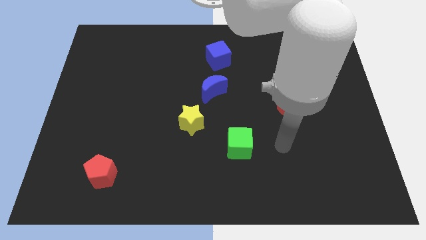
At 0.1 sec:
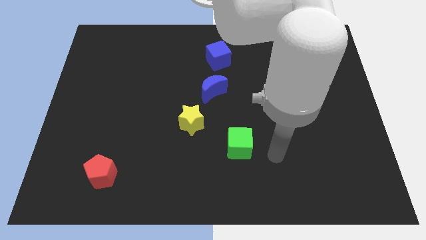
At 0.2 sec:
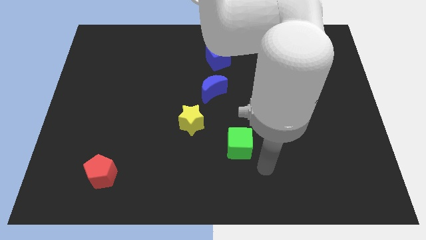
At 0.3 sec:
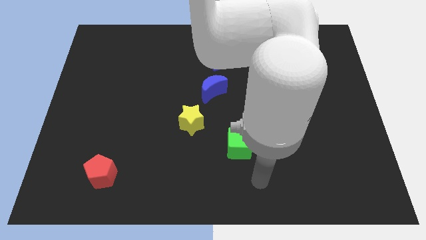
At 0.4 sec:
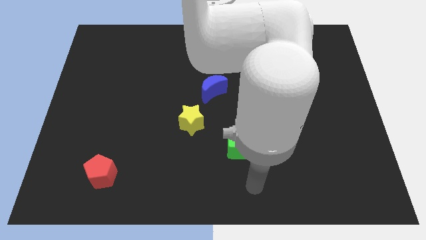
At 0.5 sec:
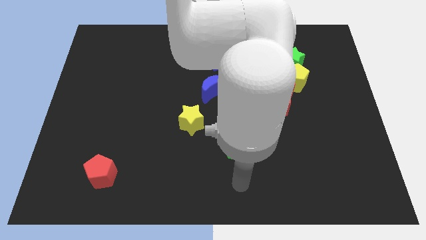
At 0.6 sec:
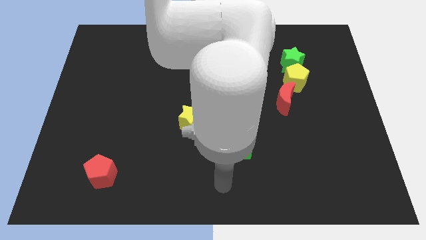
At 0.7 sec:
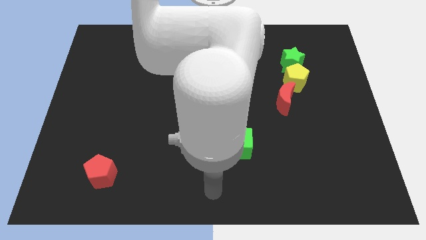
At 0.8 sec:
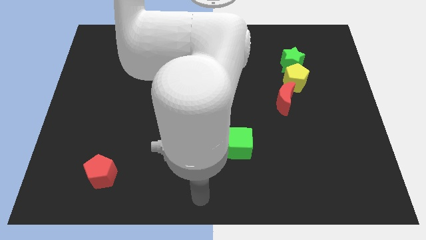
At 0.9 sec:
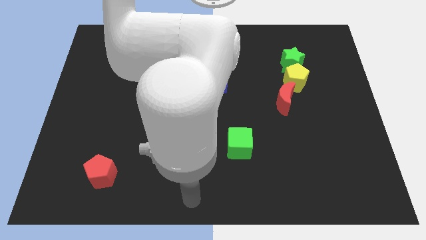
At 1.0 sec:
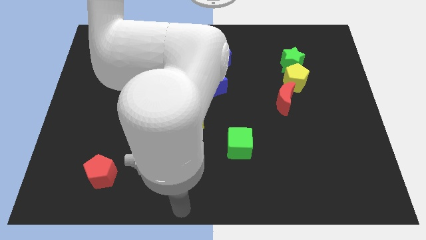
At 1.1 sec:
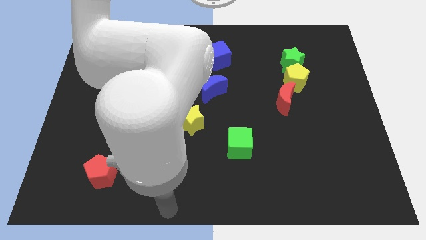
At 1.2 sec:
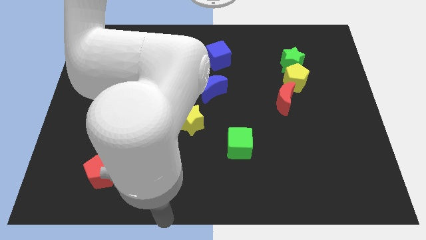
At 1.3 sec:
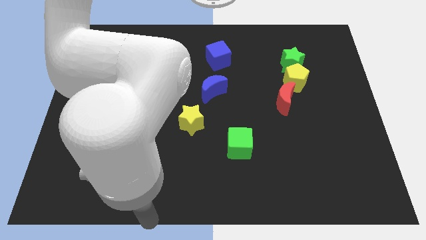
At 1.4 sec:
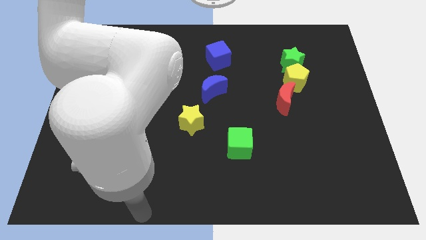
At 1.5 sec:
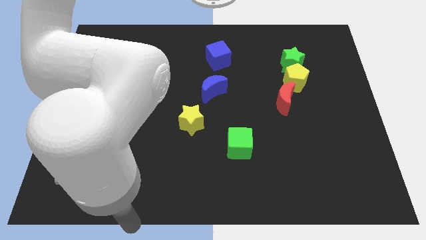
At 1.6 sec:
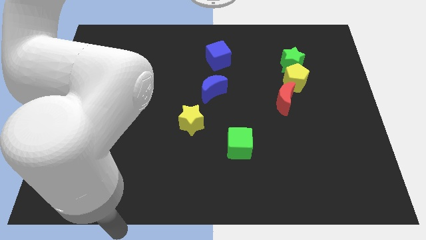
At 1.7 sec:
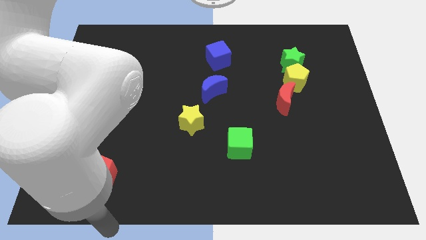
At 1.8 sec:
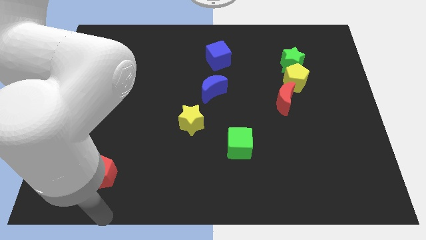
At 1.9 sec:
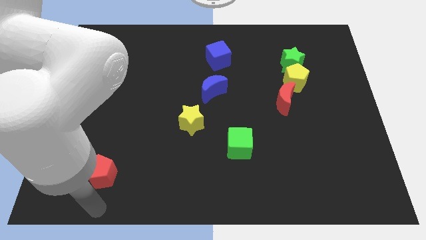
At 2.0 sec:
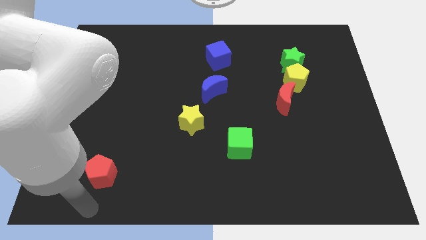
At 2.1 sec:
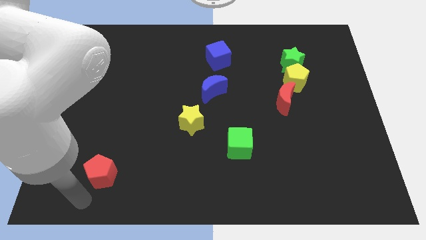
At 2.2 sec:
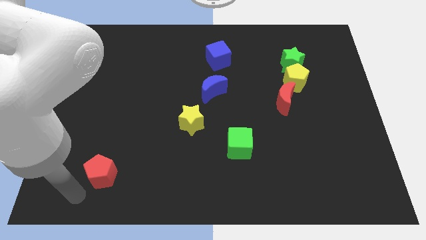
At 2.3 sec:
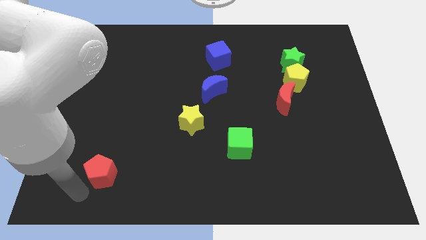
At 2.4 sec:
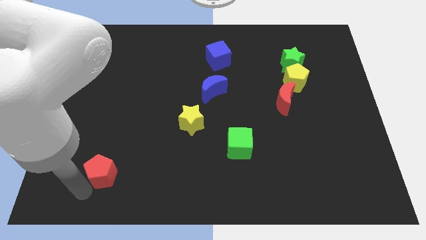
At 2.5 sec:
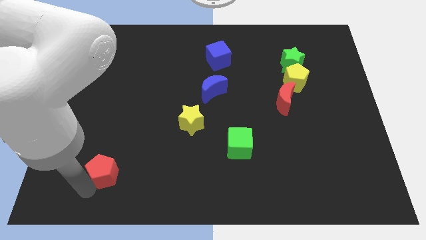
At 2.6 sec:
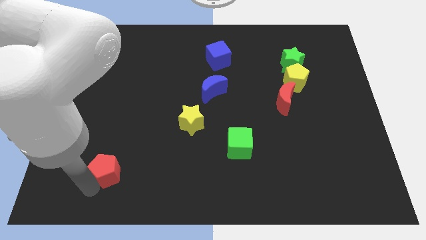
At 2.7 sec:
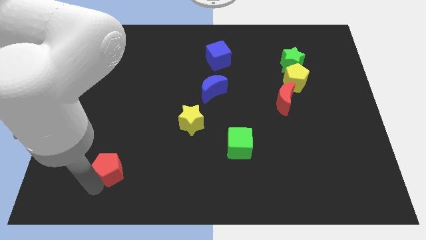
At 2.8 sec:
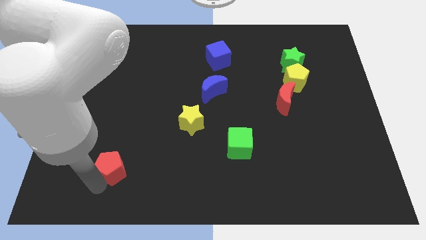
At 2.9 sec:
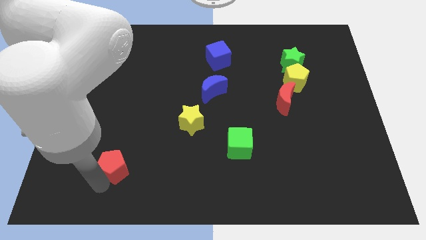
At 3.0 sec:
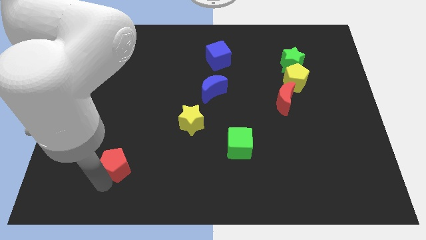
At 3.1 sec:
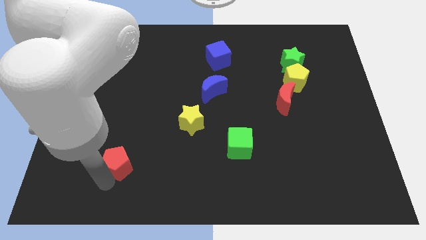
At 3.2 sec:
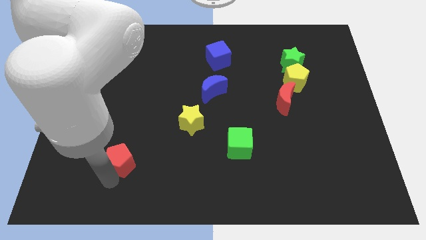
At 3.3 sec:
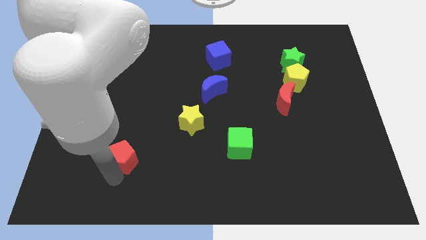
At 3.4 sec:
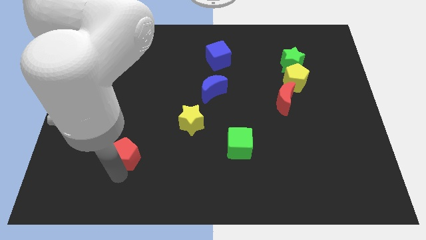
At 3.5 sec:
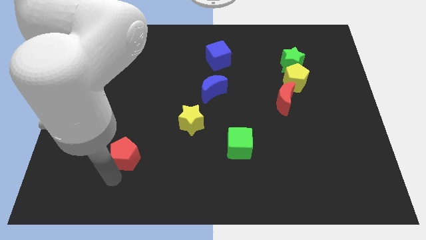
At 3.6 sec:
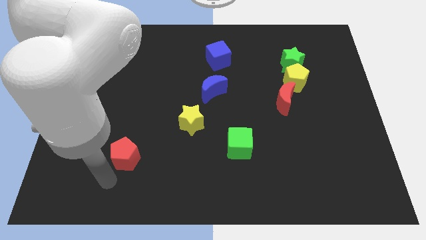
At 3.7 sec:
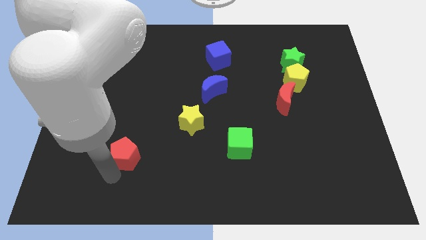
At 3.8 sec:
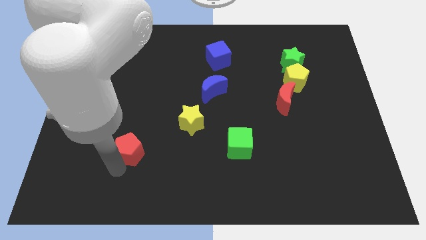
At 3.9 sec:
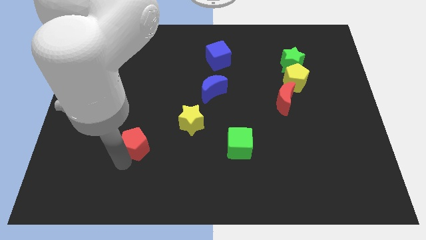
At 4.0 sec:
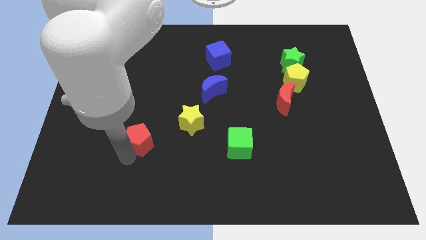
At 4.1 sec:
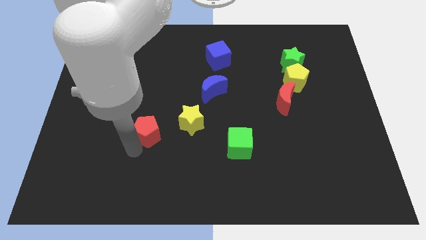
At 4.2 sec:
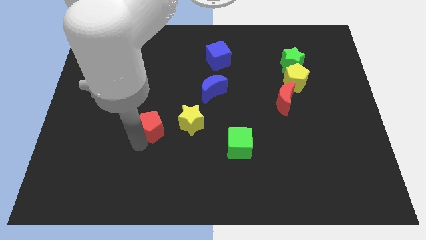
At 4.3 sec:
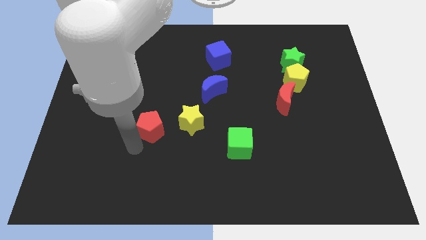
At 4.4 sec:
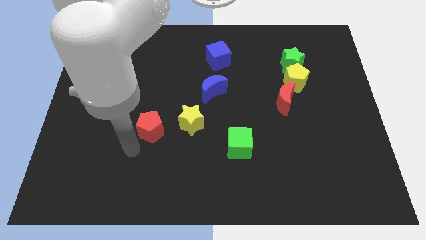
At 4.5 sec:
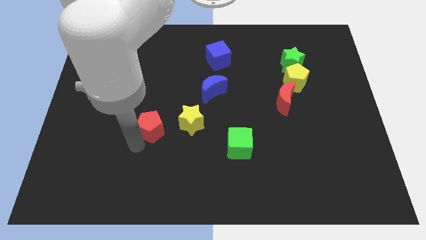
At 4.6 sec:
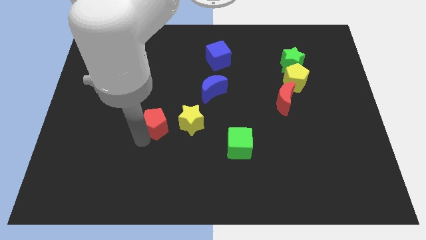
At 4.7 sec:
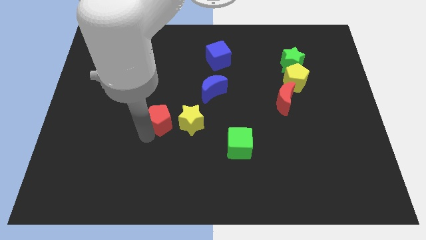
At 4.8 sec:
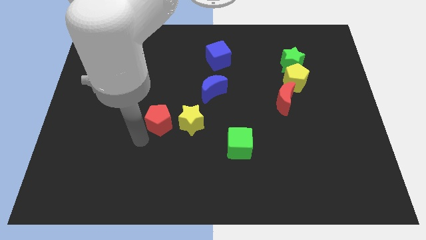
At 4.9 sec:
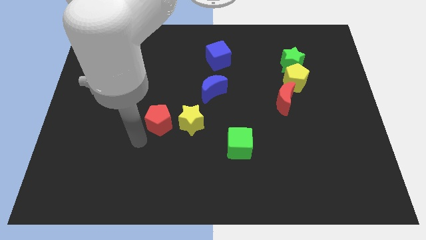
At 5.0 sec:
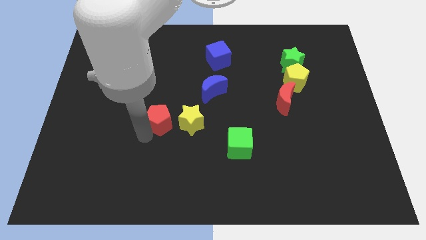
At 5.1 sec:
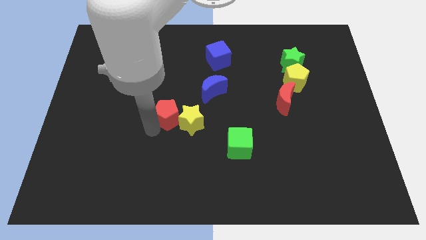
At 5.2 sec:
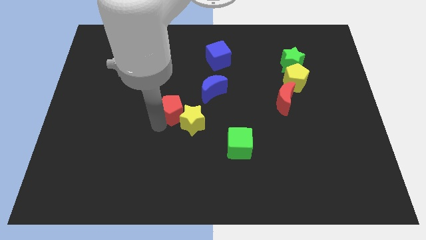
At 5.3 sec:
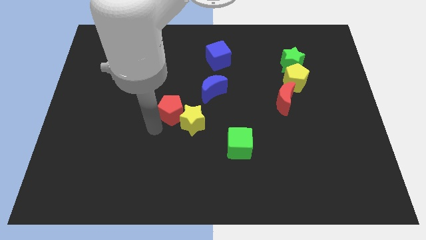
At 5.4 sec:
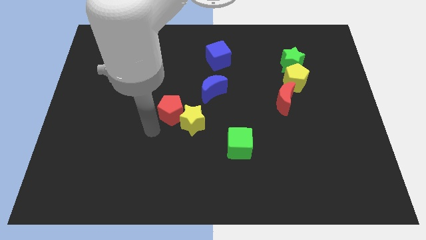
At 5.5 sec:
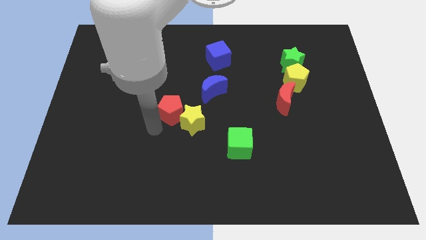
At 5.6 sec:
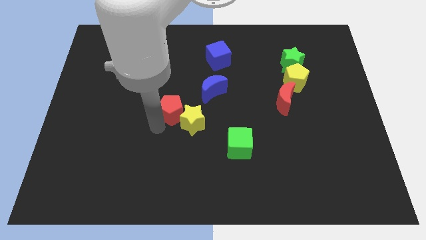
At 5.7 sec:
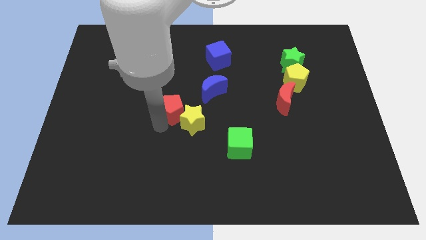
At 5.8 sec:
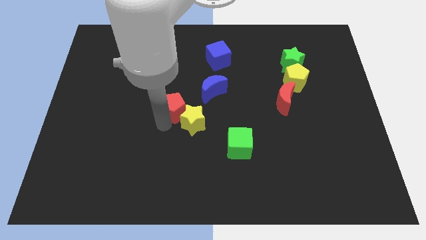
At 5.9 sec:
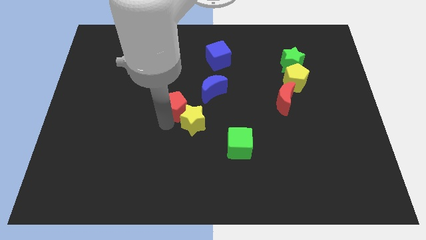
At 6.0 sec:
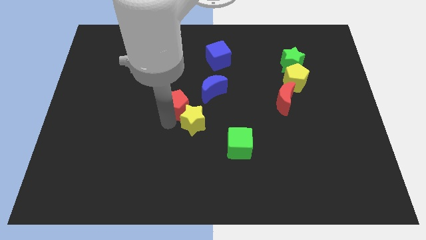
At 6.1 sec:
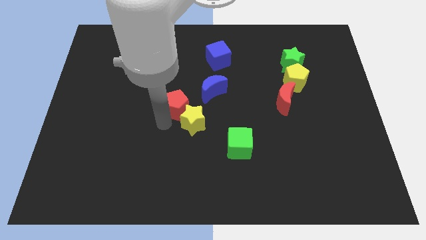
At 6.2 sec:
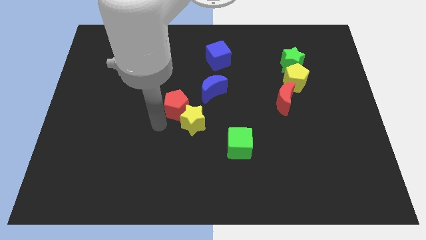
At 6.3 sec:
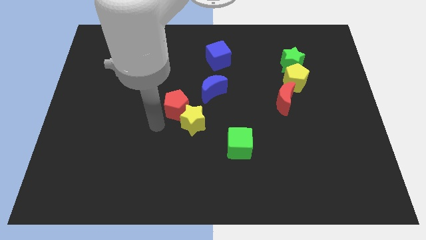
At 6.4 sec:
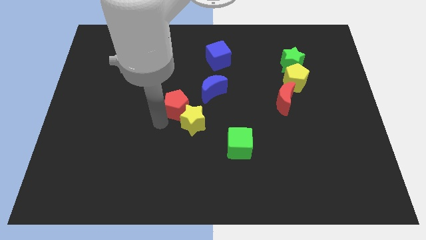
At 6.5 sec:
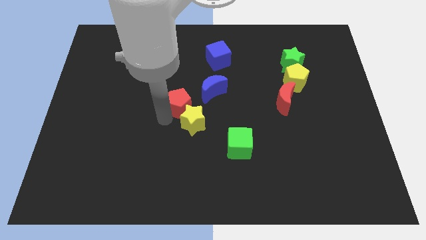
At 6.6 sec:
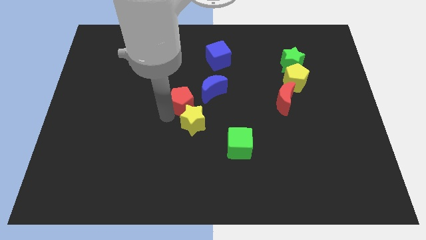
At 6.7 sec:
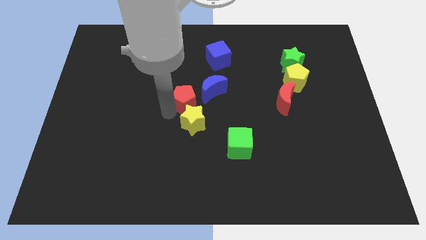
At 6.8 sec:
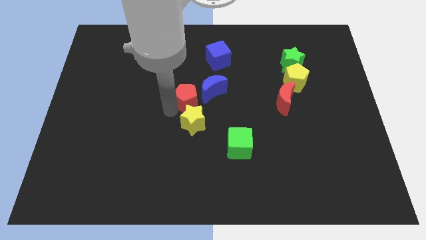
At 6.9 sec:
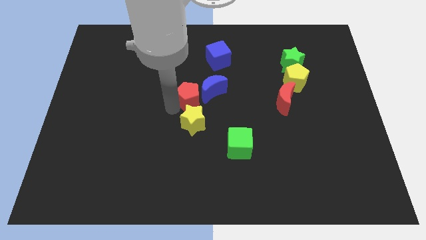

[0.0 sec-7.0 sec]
put the red pentagon to the blue moon

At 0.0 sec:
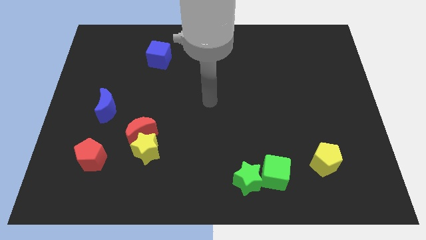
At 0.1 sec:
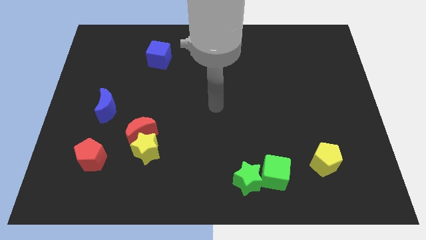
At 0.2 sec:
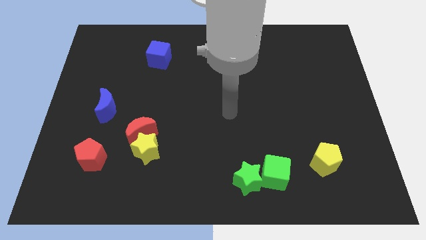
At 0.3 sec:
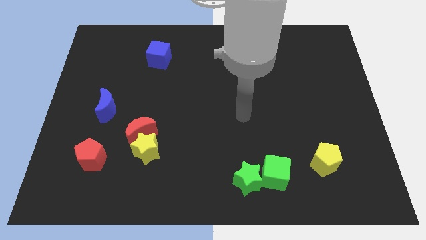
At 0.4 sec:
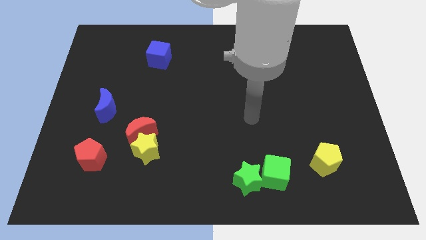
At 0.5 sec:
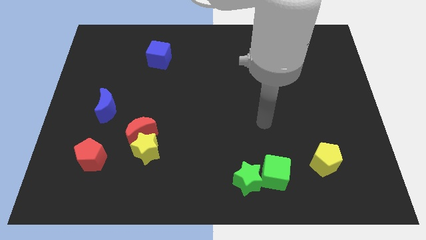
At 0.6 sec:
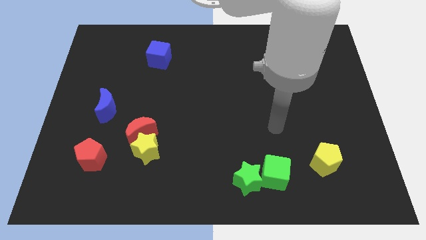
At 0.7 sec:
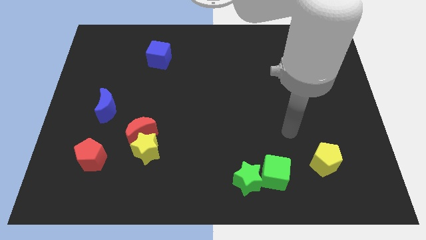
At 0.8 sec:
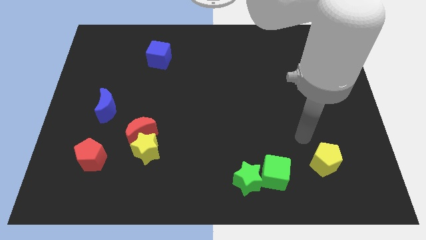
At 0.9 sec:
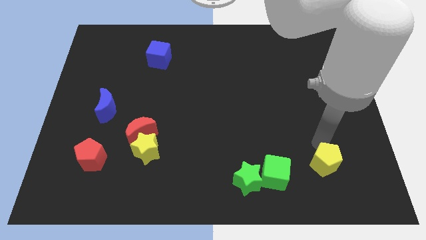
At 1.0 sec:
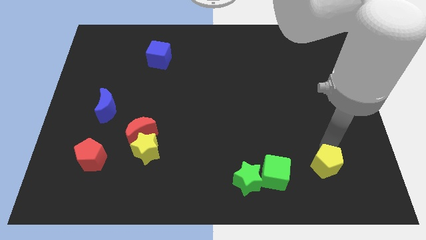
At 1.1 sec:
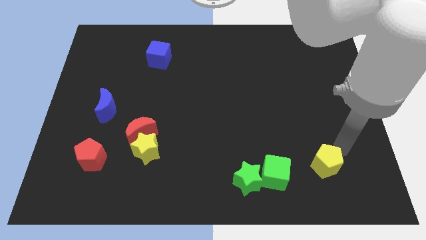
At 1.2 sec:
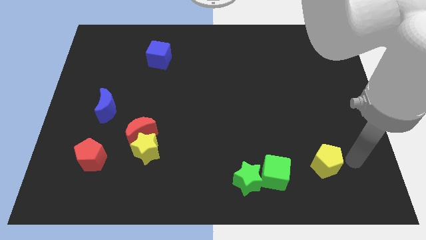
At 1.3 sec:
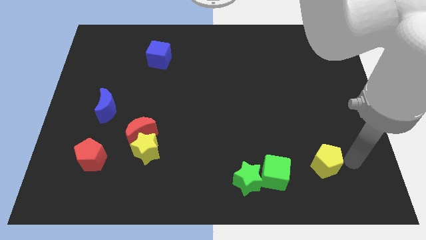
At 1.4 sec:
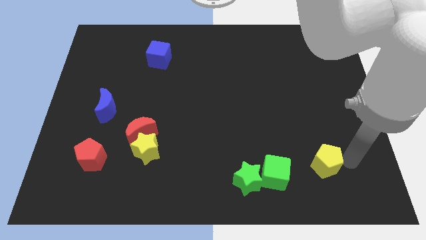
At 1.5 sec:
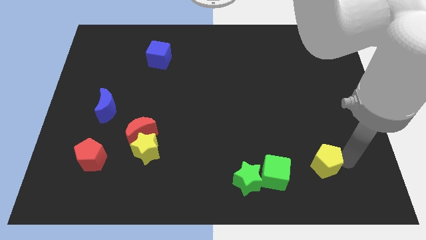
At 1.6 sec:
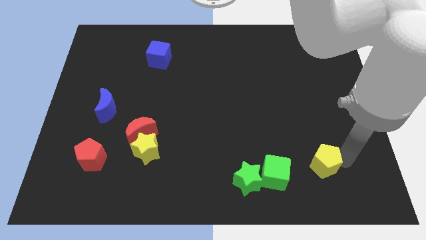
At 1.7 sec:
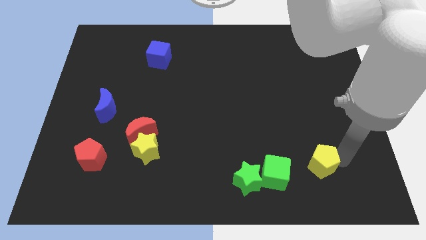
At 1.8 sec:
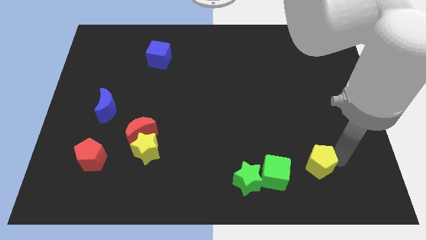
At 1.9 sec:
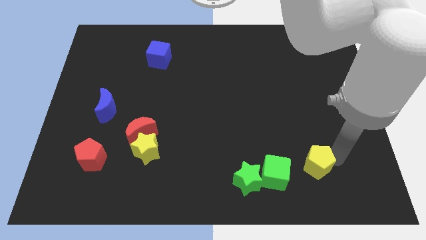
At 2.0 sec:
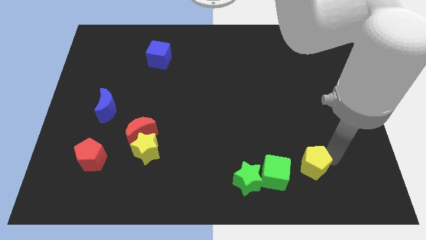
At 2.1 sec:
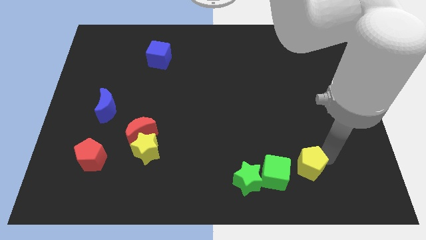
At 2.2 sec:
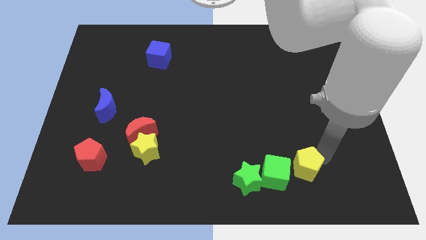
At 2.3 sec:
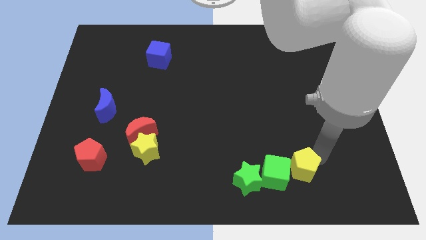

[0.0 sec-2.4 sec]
slide the yellow pentagon to the green cube
